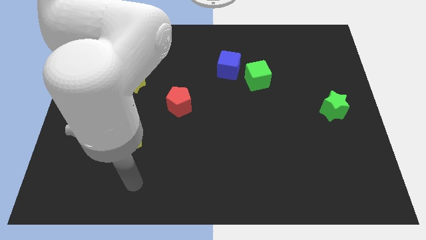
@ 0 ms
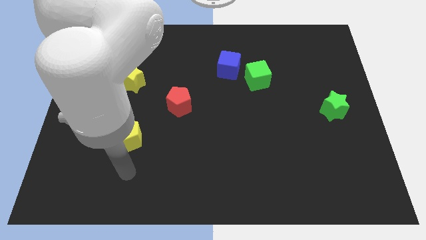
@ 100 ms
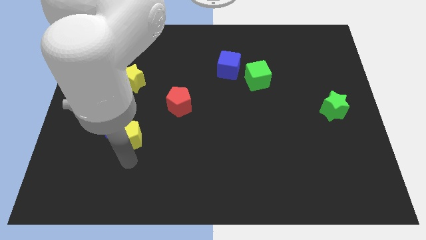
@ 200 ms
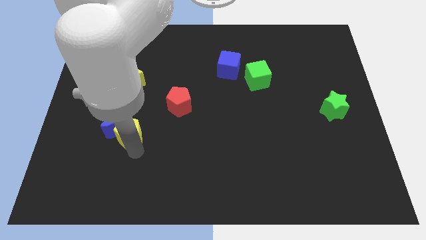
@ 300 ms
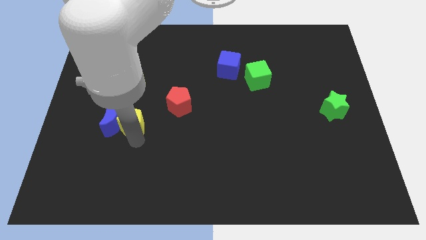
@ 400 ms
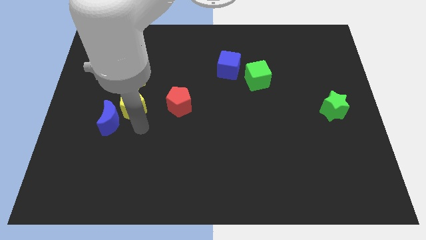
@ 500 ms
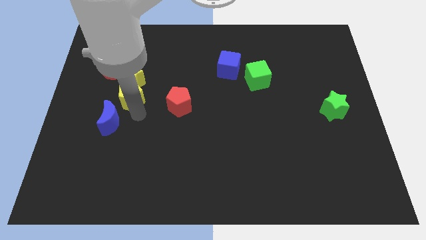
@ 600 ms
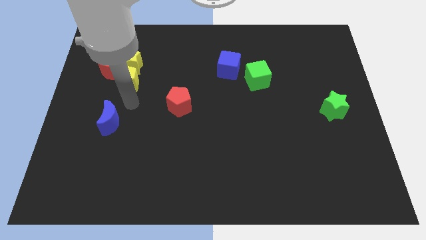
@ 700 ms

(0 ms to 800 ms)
move the blue moon away from the yellow pentagon

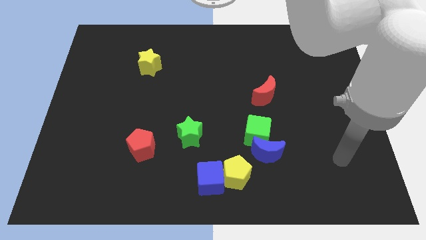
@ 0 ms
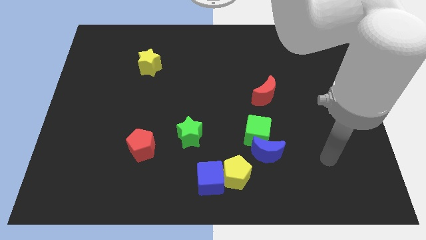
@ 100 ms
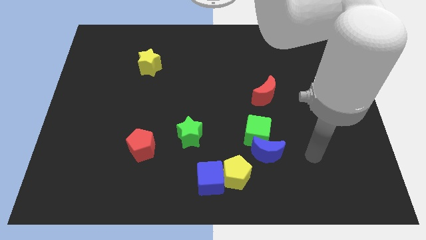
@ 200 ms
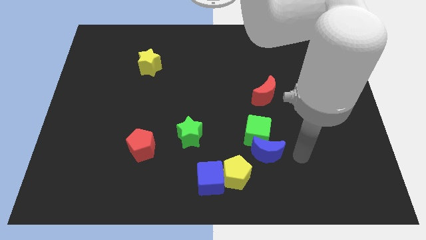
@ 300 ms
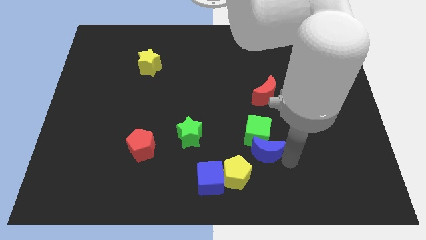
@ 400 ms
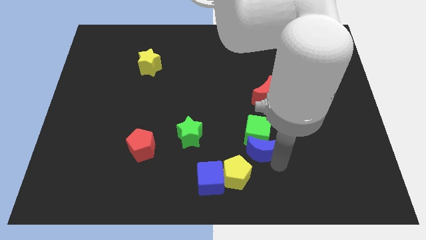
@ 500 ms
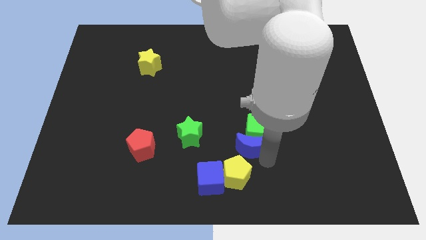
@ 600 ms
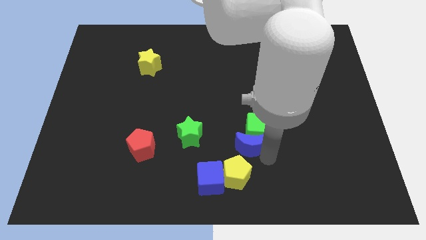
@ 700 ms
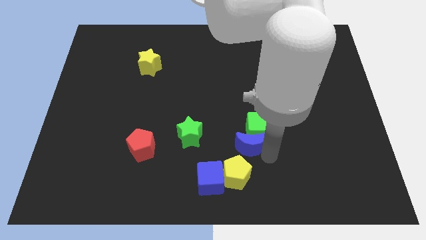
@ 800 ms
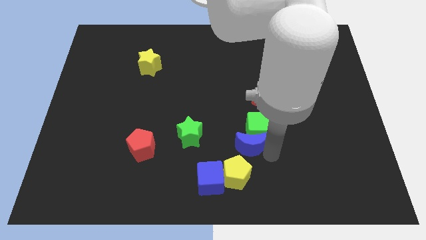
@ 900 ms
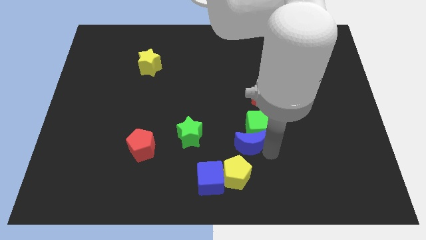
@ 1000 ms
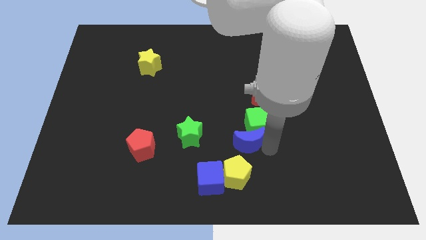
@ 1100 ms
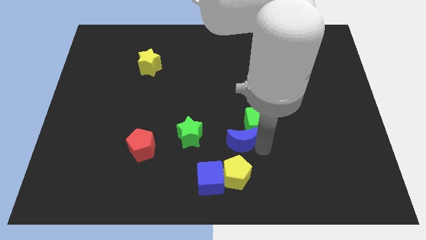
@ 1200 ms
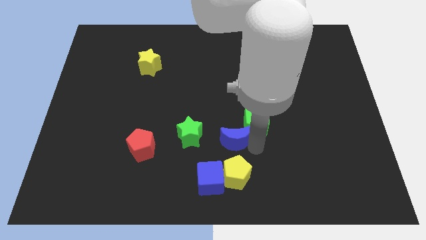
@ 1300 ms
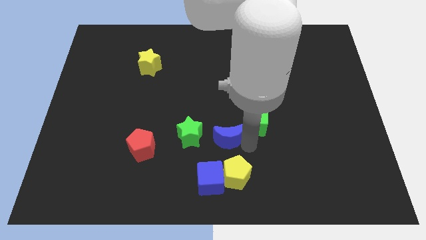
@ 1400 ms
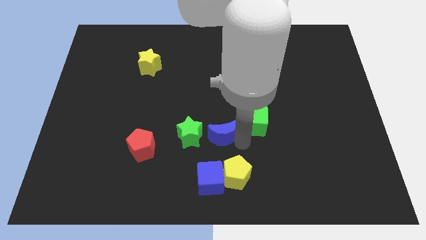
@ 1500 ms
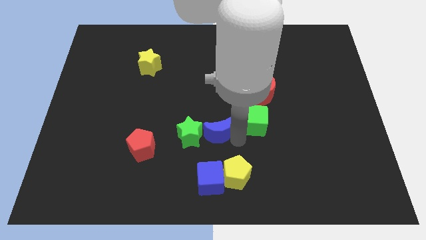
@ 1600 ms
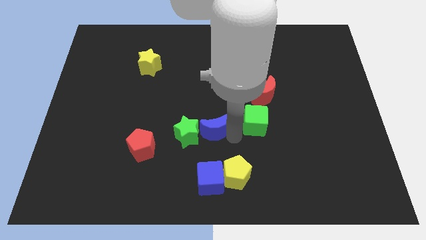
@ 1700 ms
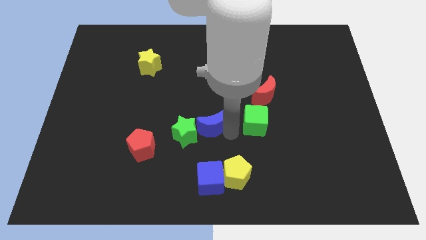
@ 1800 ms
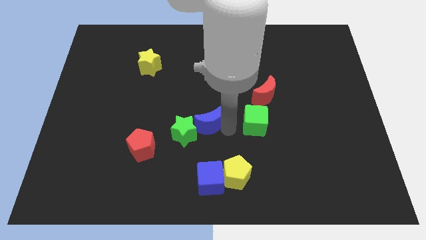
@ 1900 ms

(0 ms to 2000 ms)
separate the green cube from the blue moon

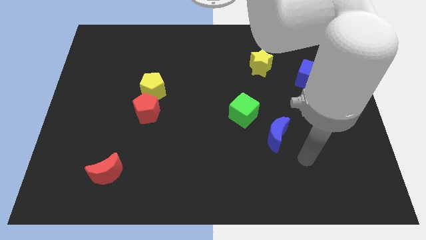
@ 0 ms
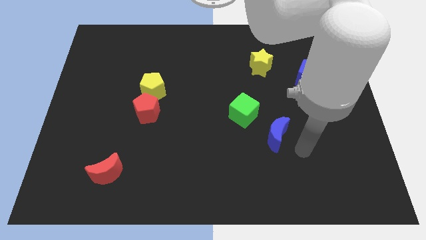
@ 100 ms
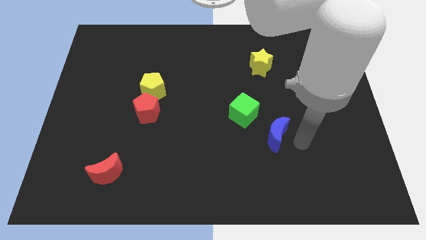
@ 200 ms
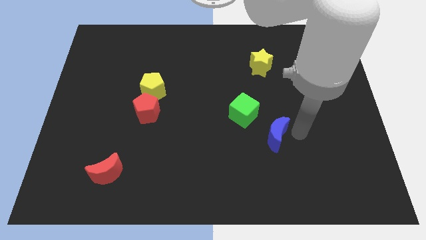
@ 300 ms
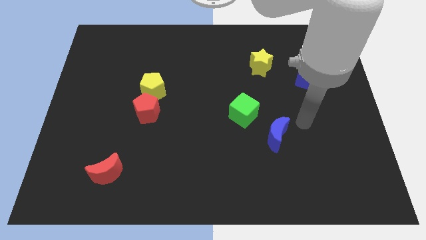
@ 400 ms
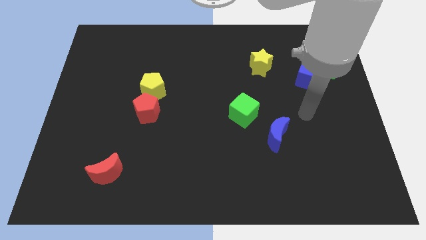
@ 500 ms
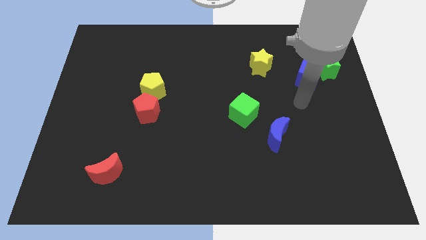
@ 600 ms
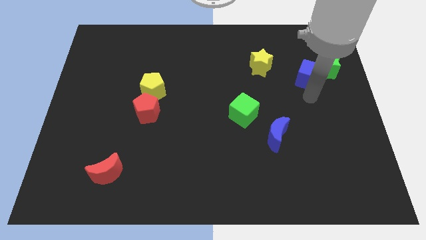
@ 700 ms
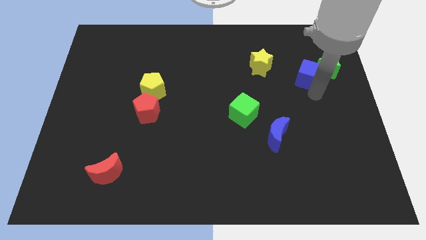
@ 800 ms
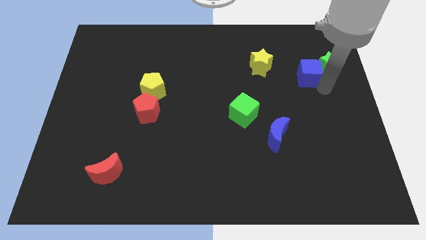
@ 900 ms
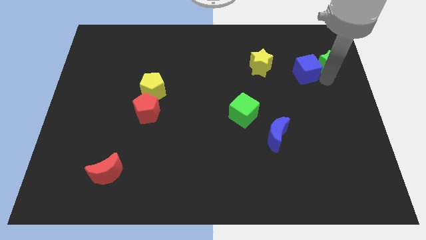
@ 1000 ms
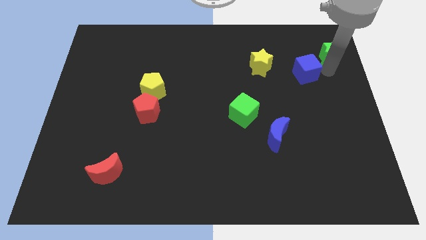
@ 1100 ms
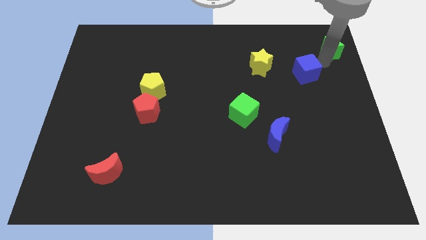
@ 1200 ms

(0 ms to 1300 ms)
separate the blue cube from the green star

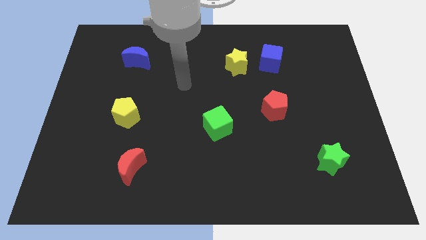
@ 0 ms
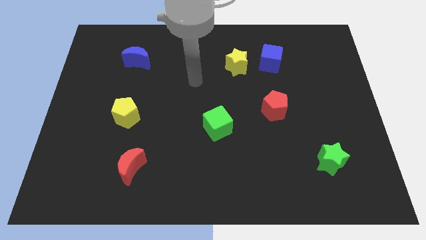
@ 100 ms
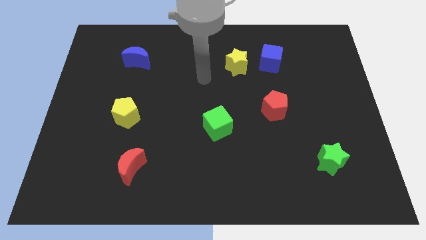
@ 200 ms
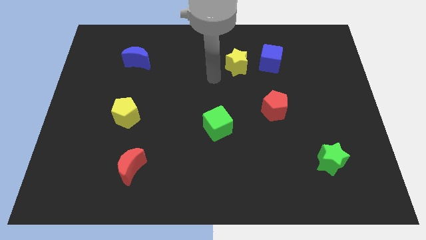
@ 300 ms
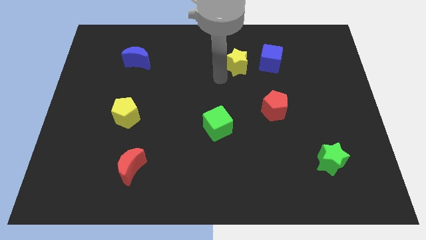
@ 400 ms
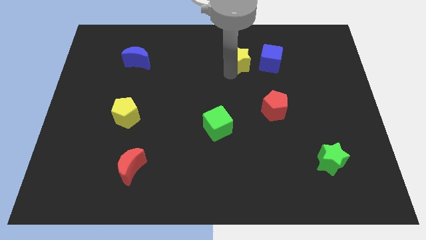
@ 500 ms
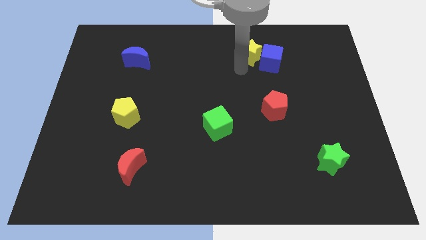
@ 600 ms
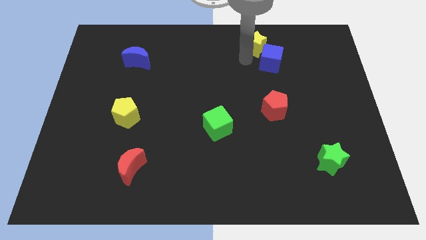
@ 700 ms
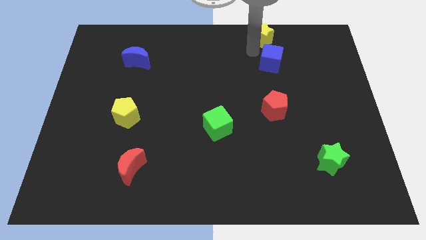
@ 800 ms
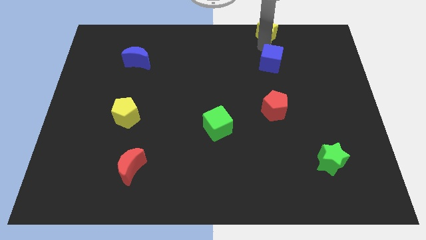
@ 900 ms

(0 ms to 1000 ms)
pull the blue cube apart from the yellow star

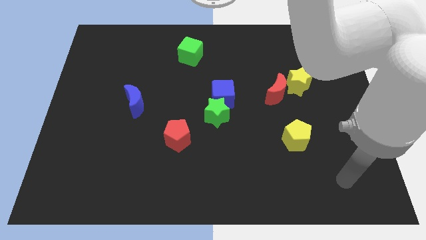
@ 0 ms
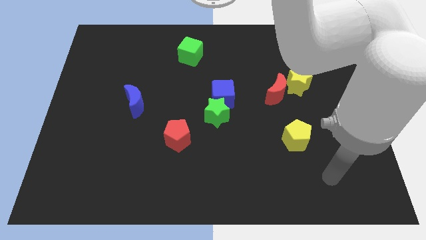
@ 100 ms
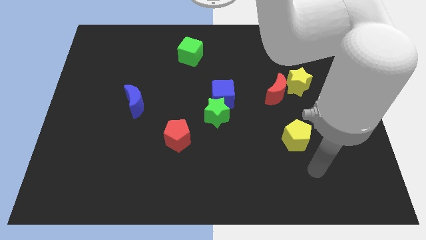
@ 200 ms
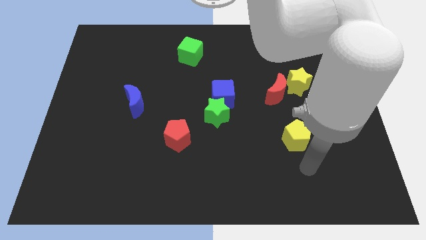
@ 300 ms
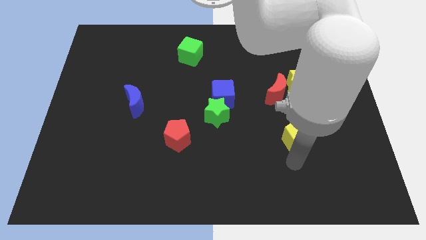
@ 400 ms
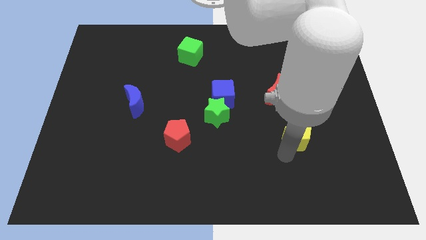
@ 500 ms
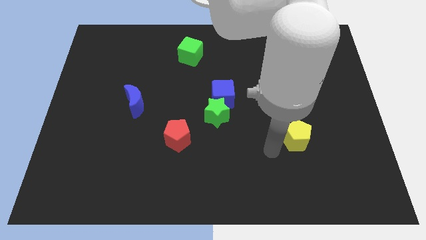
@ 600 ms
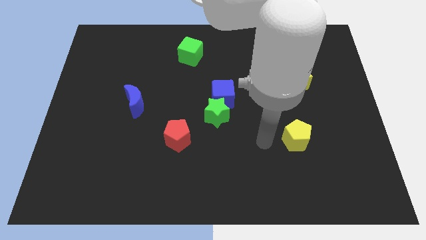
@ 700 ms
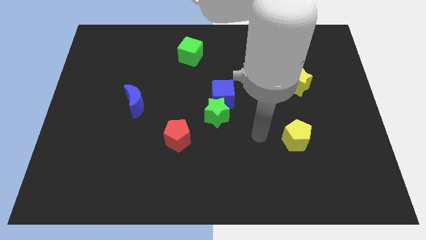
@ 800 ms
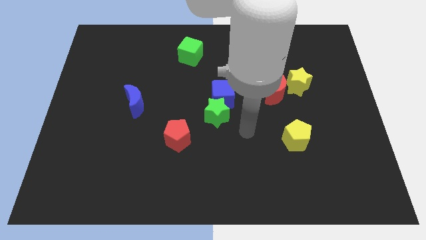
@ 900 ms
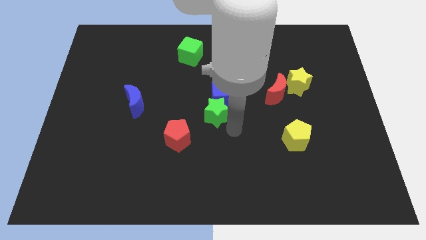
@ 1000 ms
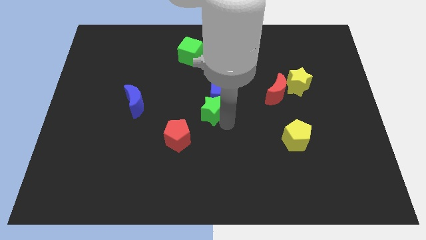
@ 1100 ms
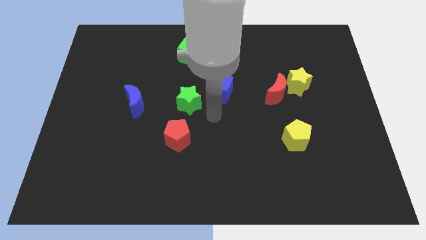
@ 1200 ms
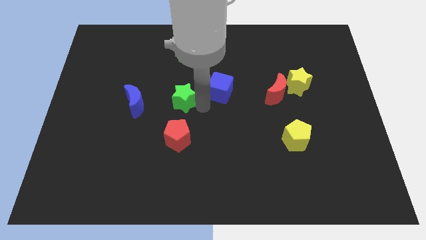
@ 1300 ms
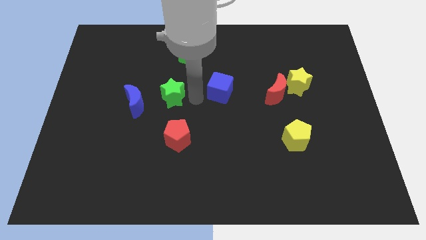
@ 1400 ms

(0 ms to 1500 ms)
move the blue cube away from the green star

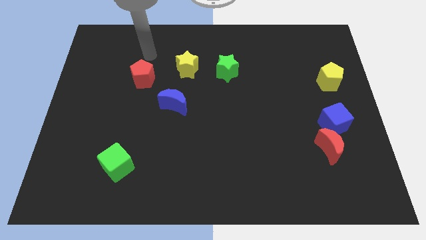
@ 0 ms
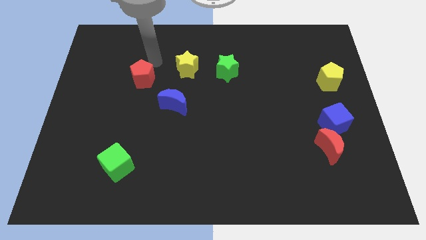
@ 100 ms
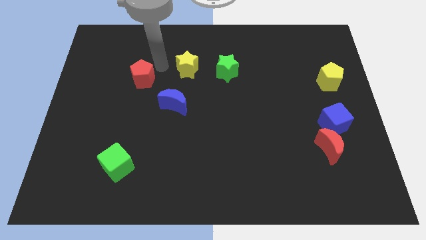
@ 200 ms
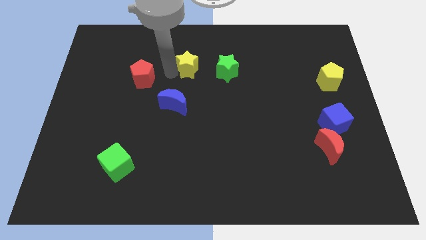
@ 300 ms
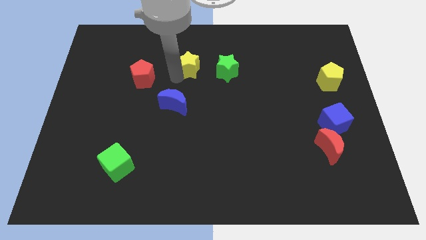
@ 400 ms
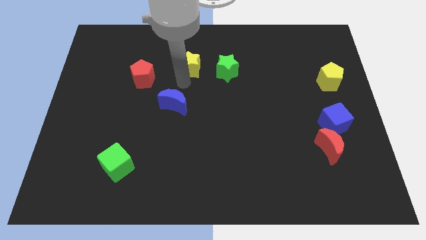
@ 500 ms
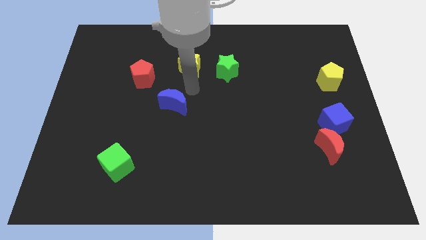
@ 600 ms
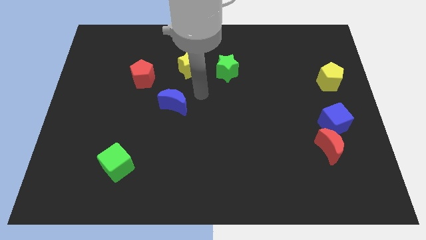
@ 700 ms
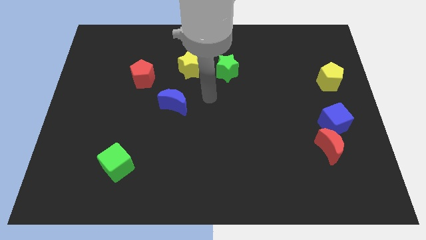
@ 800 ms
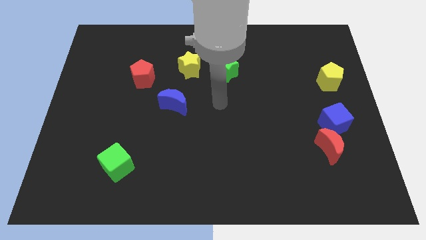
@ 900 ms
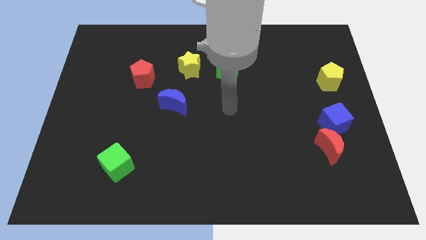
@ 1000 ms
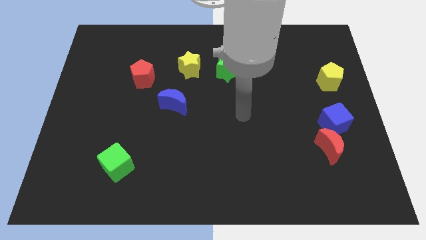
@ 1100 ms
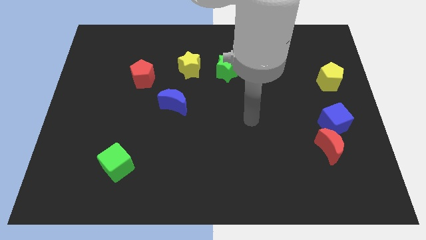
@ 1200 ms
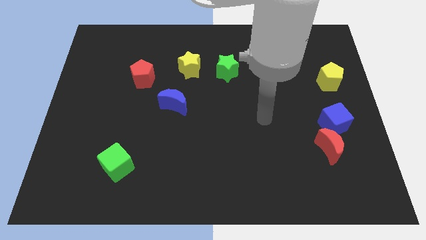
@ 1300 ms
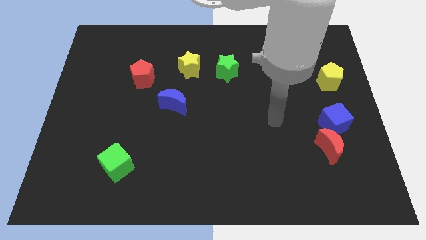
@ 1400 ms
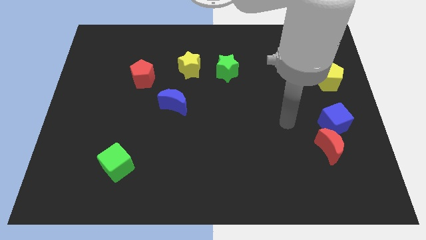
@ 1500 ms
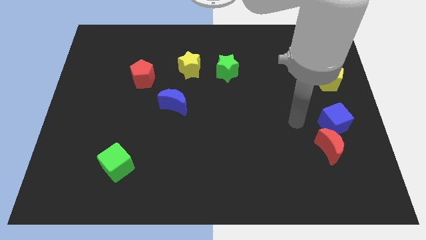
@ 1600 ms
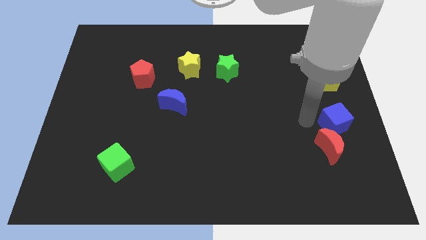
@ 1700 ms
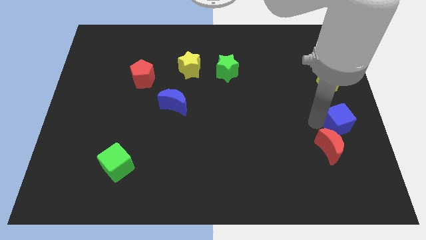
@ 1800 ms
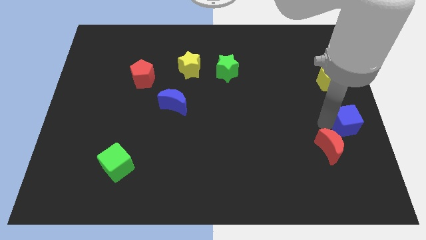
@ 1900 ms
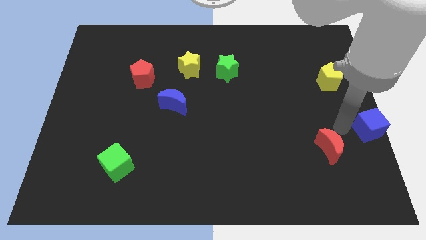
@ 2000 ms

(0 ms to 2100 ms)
pull the red moon apart from the blue cube

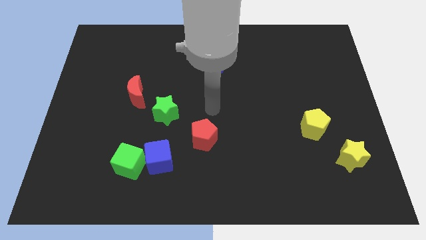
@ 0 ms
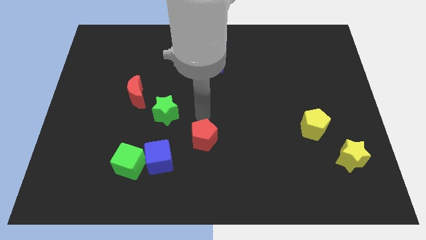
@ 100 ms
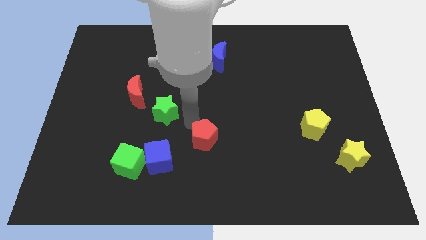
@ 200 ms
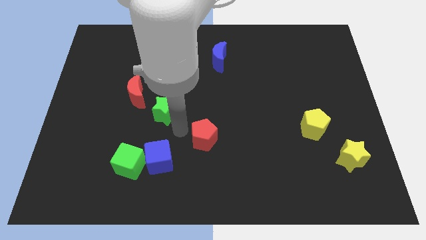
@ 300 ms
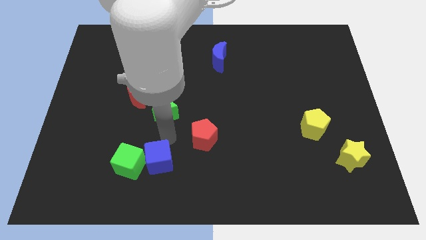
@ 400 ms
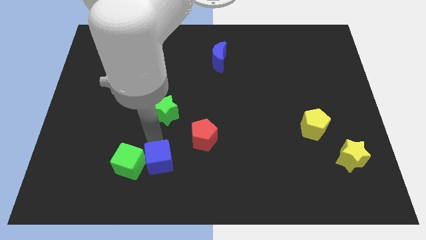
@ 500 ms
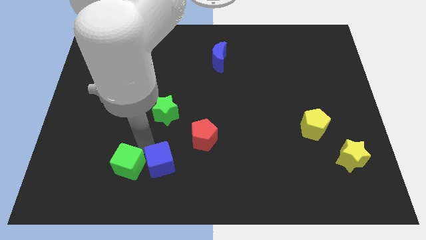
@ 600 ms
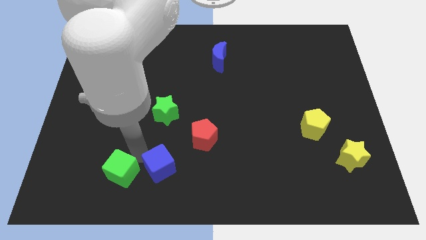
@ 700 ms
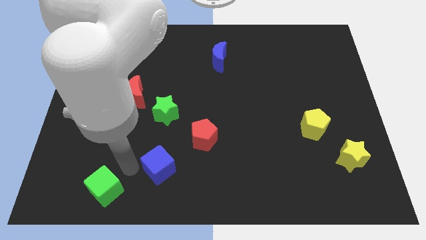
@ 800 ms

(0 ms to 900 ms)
separate the blue cube from the green cube
